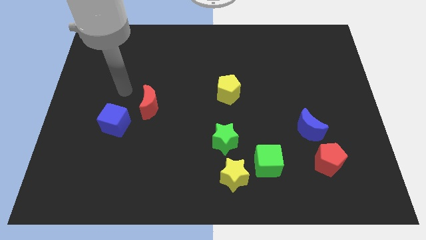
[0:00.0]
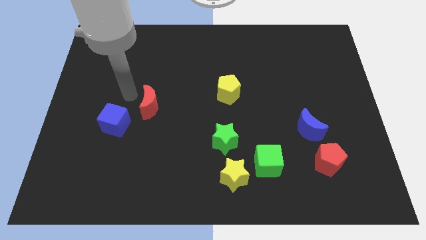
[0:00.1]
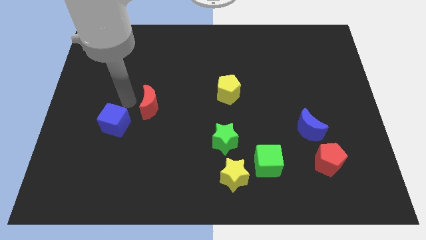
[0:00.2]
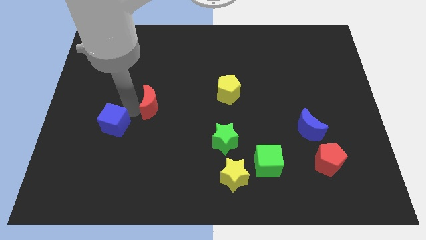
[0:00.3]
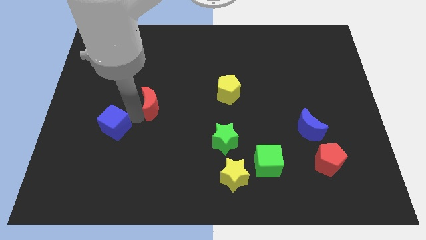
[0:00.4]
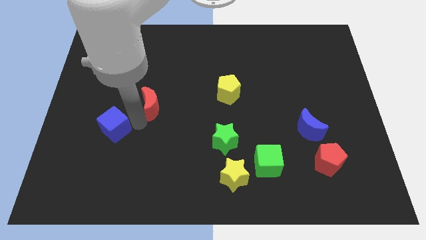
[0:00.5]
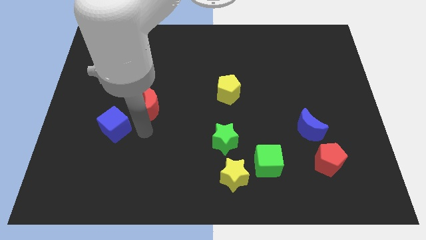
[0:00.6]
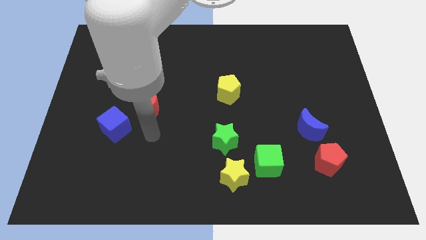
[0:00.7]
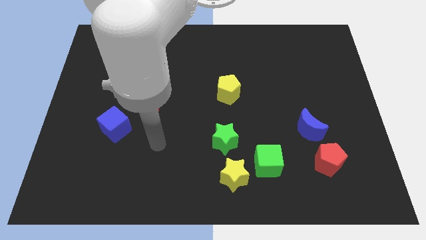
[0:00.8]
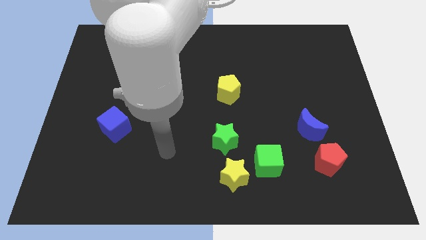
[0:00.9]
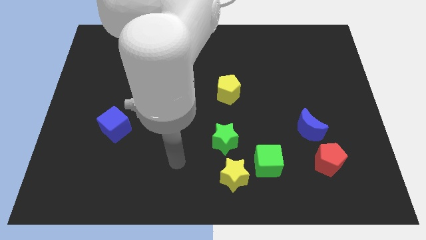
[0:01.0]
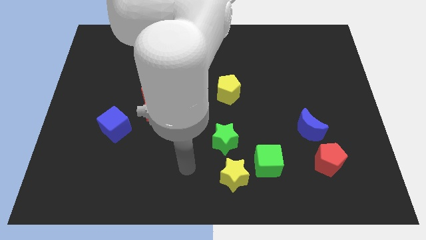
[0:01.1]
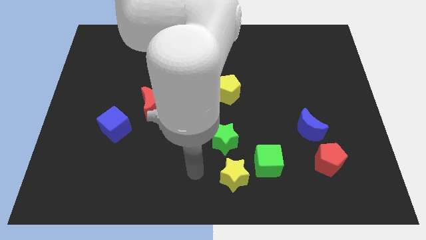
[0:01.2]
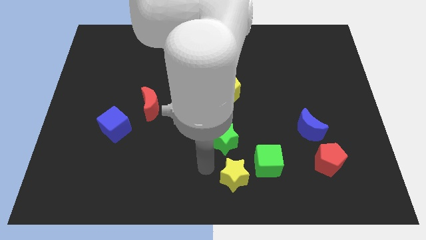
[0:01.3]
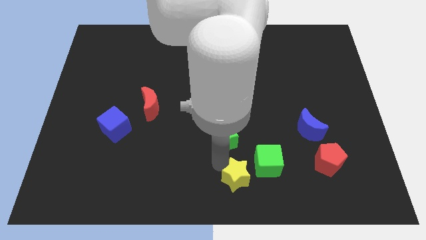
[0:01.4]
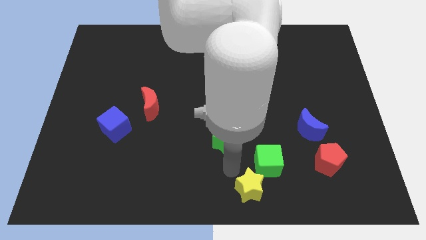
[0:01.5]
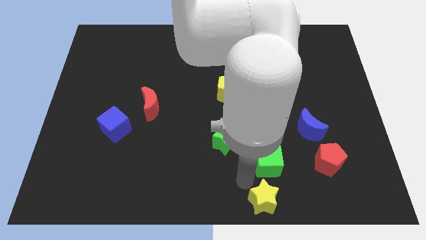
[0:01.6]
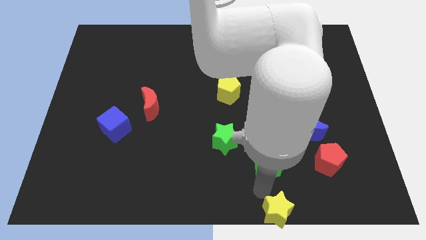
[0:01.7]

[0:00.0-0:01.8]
move the green cube away from the yellow star

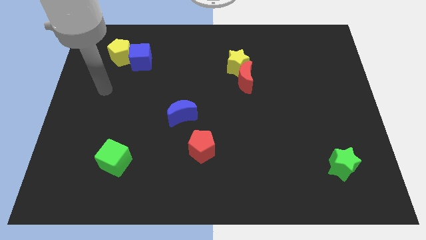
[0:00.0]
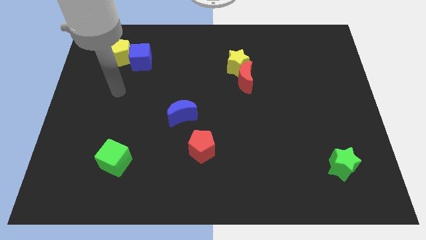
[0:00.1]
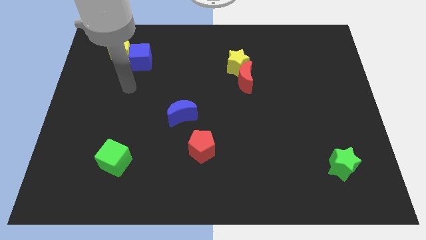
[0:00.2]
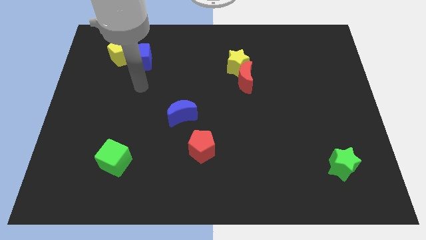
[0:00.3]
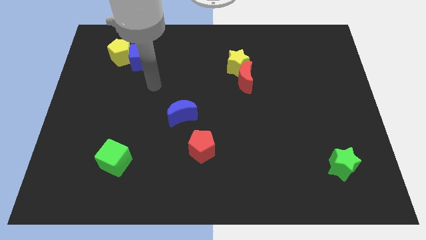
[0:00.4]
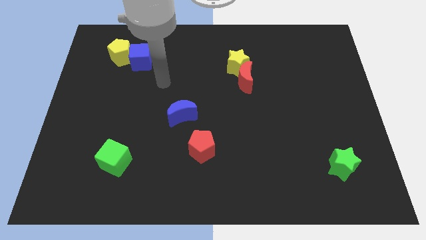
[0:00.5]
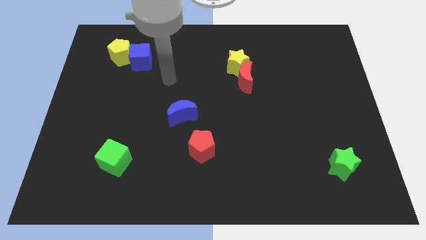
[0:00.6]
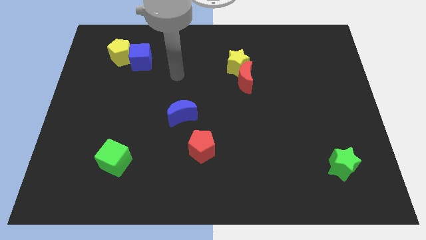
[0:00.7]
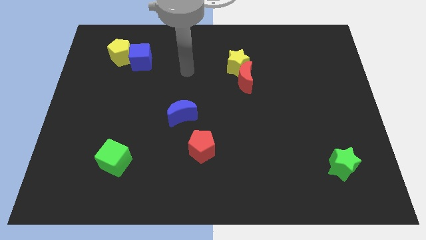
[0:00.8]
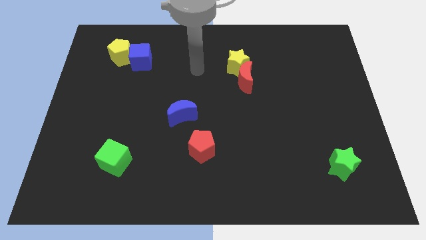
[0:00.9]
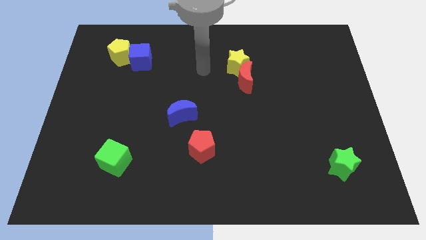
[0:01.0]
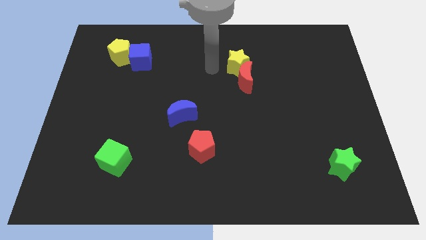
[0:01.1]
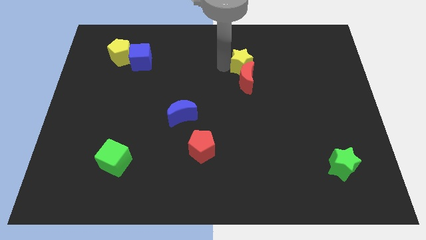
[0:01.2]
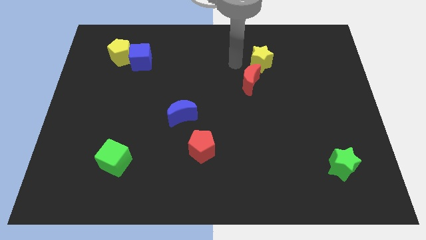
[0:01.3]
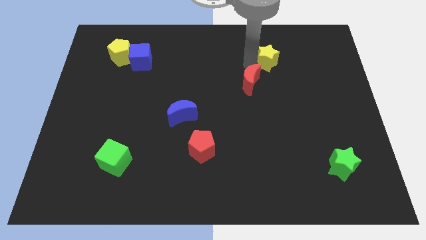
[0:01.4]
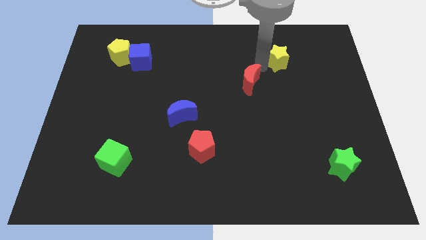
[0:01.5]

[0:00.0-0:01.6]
move the red moon away from the yellow star

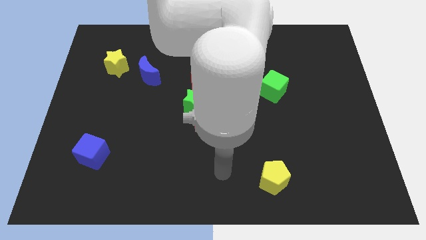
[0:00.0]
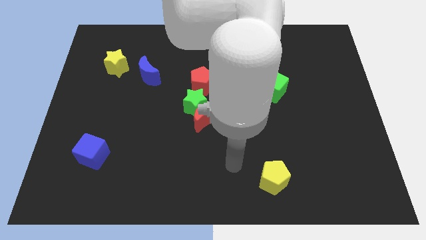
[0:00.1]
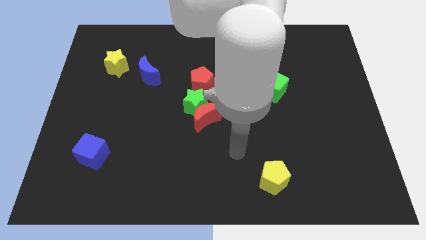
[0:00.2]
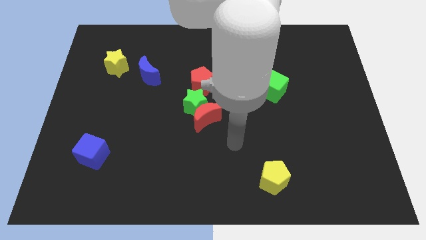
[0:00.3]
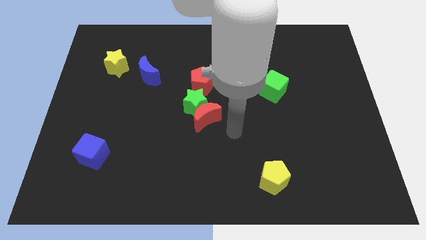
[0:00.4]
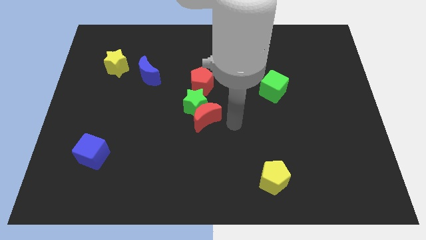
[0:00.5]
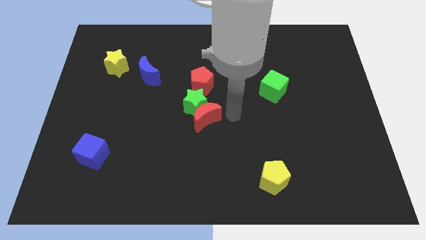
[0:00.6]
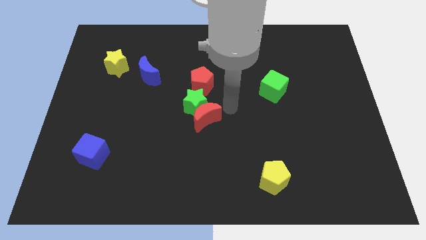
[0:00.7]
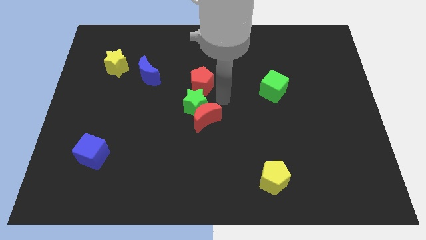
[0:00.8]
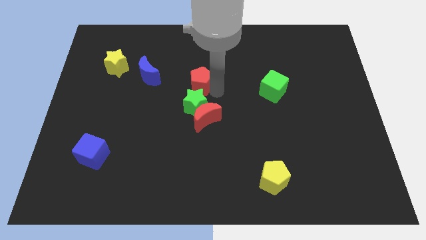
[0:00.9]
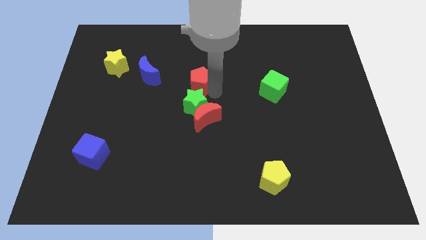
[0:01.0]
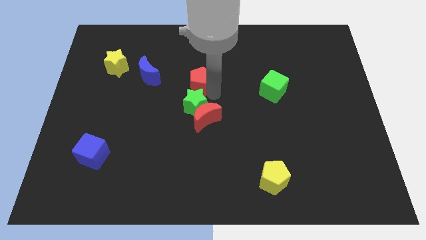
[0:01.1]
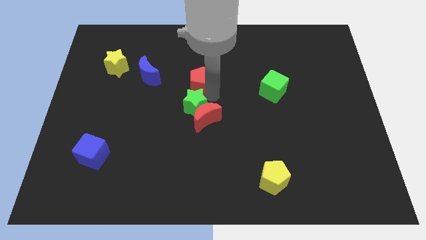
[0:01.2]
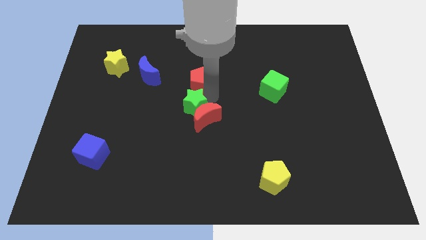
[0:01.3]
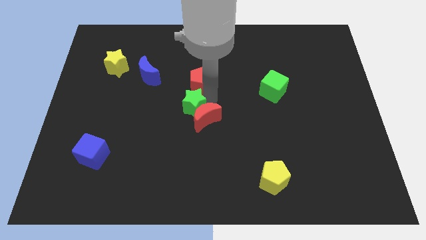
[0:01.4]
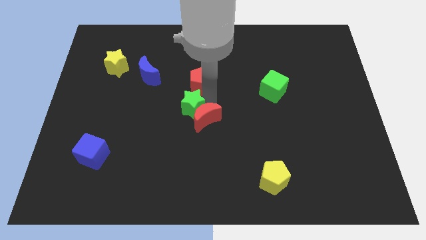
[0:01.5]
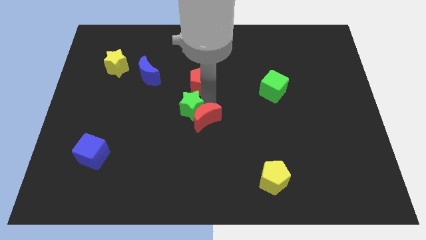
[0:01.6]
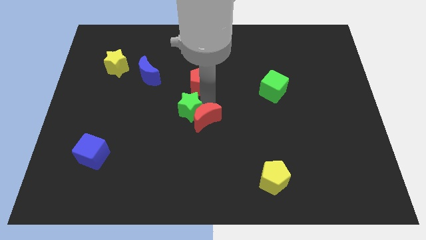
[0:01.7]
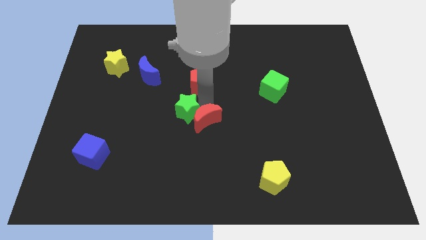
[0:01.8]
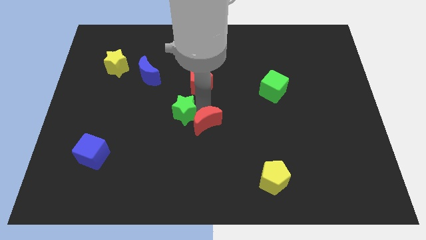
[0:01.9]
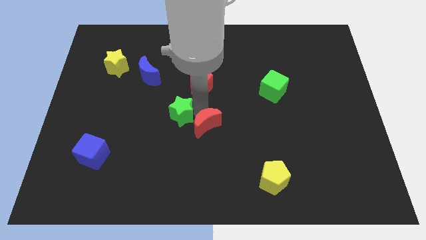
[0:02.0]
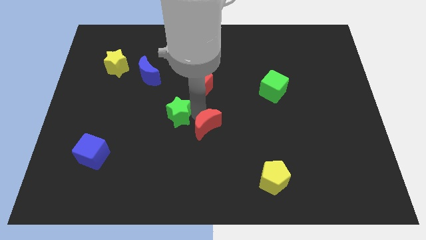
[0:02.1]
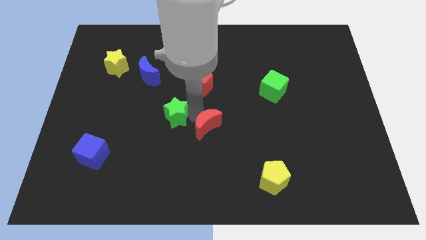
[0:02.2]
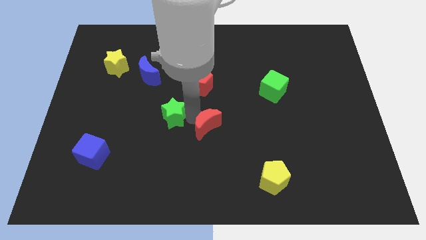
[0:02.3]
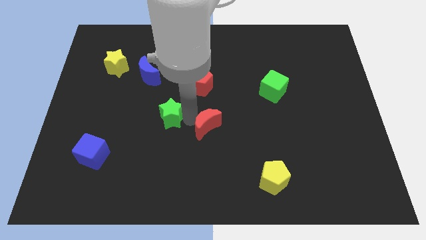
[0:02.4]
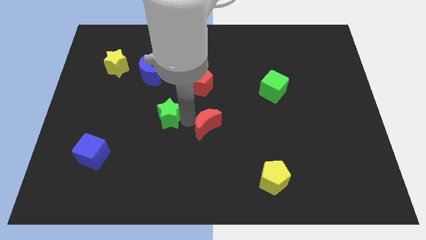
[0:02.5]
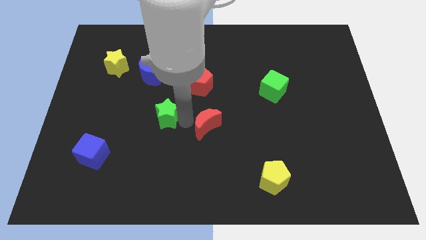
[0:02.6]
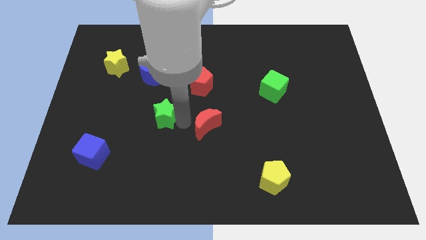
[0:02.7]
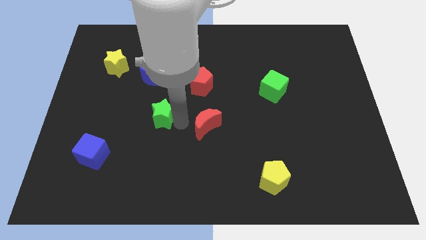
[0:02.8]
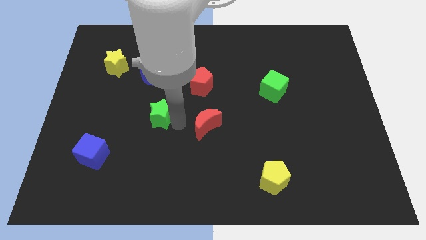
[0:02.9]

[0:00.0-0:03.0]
separate the green star from the red moon and red pentagon

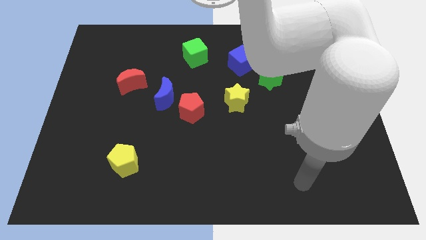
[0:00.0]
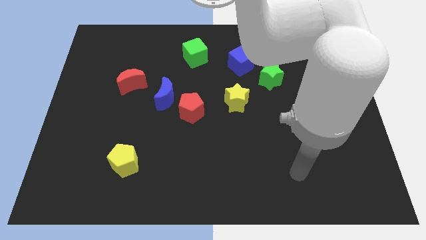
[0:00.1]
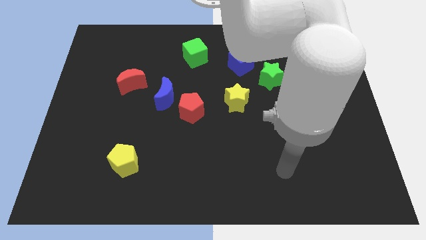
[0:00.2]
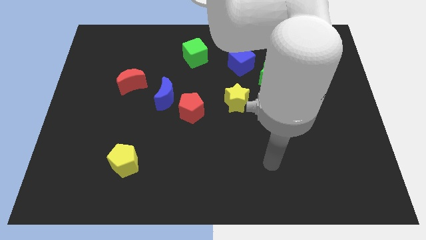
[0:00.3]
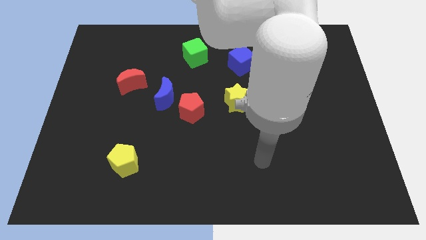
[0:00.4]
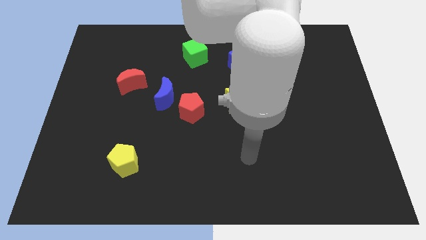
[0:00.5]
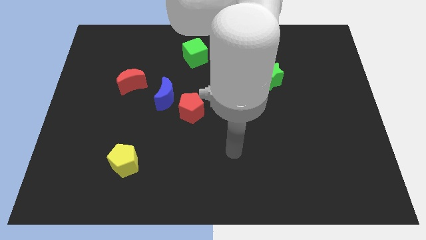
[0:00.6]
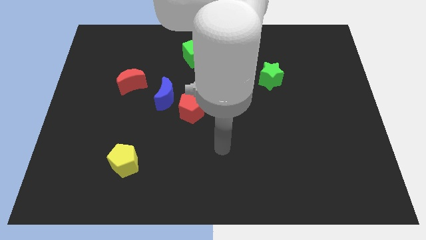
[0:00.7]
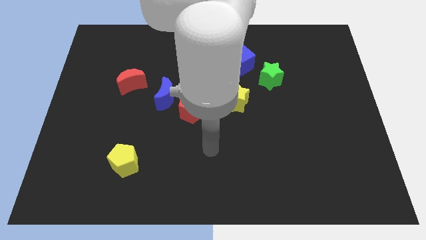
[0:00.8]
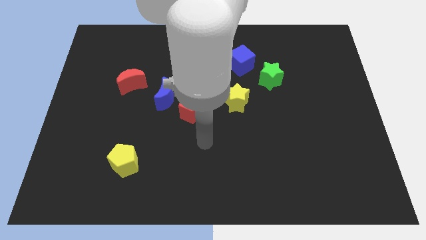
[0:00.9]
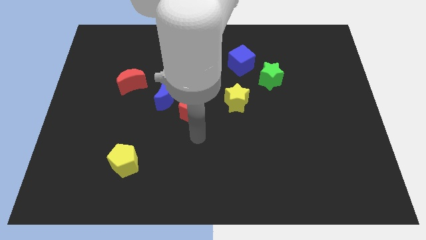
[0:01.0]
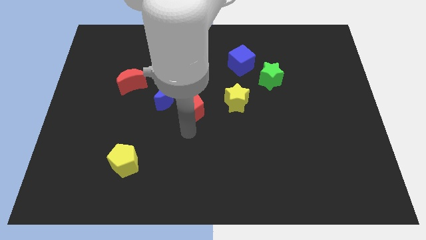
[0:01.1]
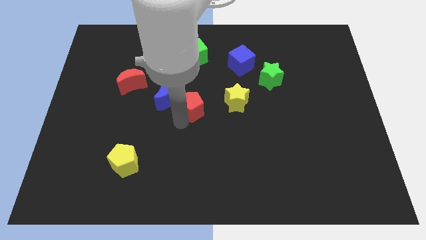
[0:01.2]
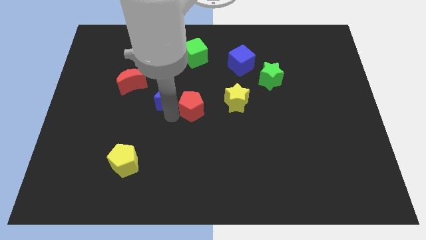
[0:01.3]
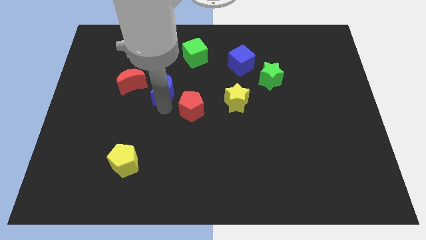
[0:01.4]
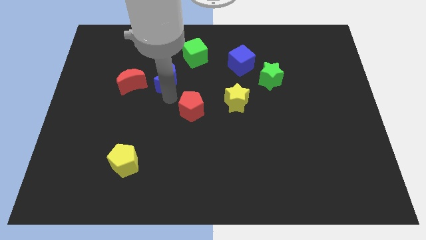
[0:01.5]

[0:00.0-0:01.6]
pull the red pentagon apart from the blue moon

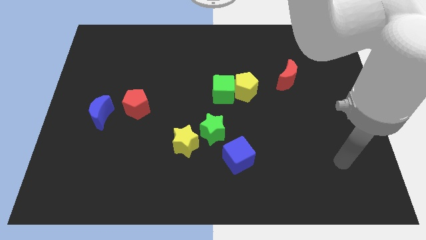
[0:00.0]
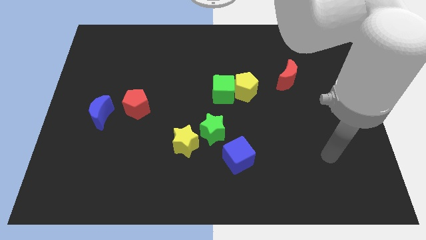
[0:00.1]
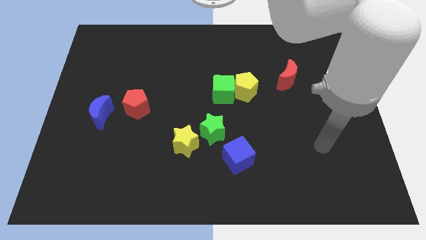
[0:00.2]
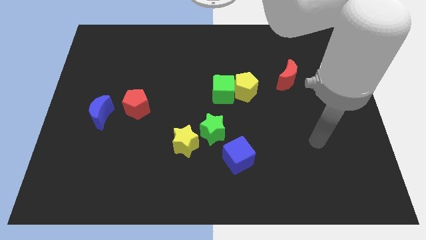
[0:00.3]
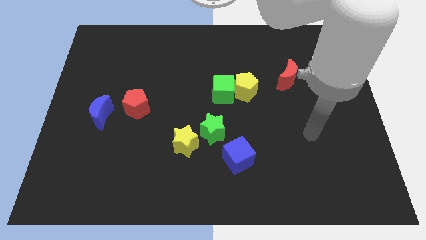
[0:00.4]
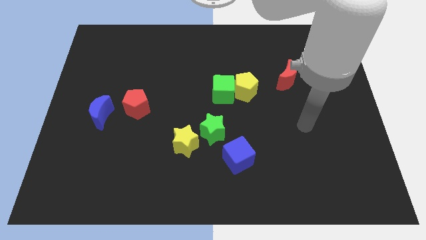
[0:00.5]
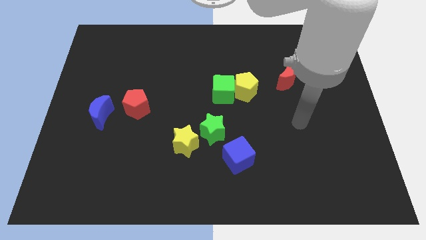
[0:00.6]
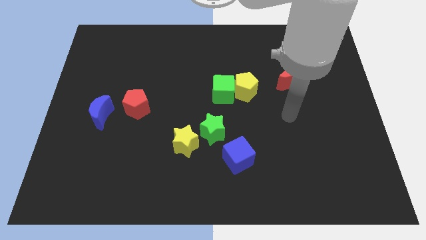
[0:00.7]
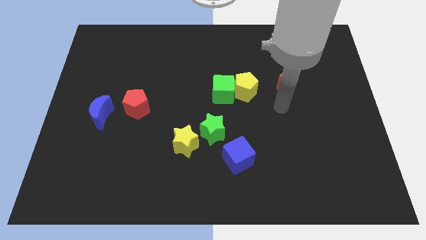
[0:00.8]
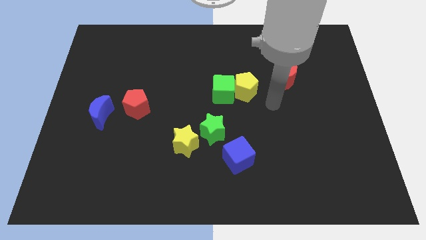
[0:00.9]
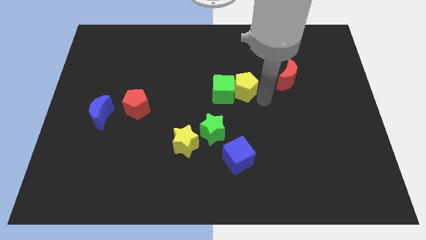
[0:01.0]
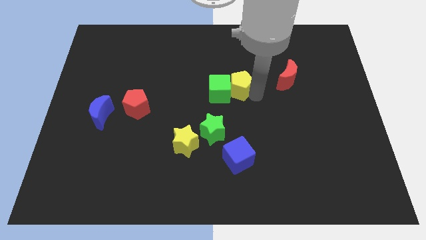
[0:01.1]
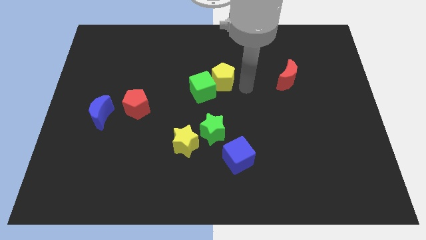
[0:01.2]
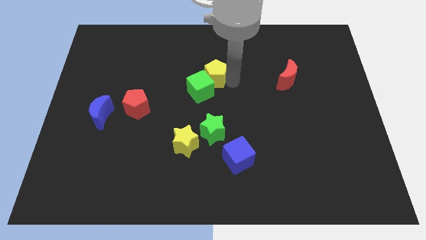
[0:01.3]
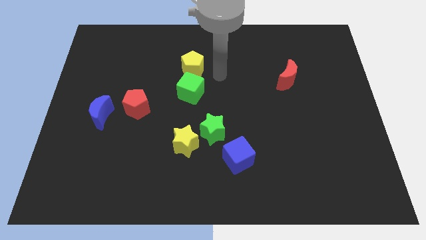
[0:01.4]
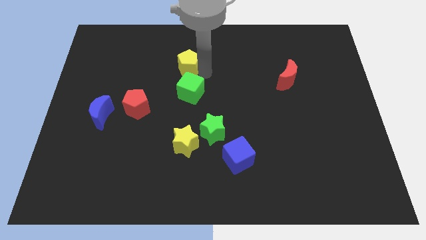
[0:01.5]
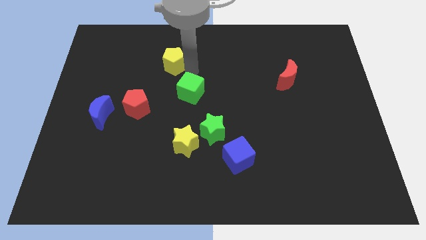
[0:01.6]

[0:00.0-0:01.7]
pull the green cube apart from the yellow pentagon
